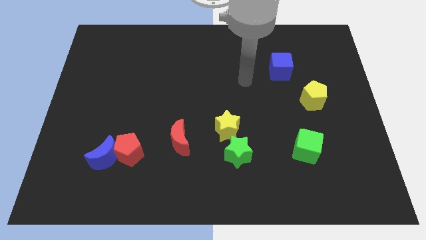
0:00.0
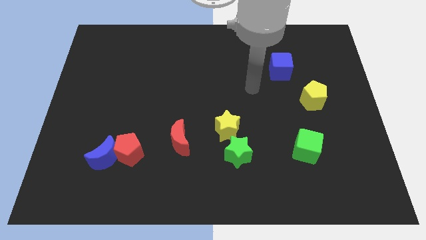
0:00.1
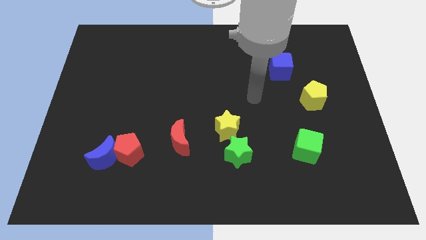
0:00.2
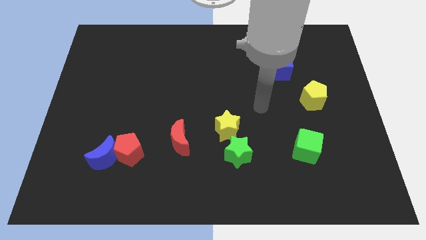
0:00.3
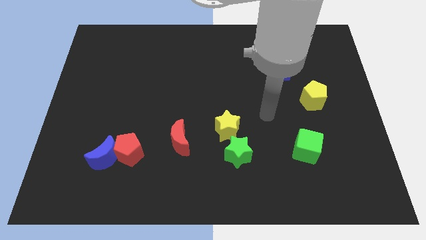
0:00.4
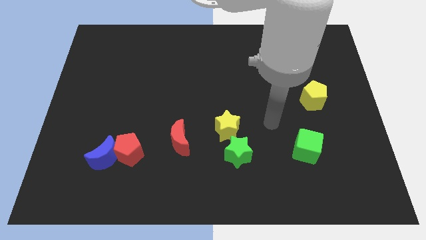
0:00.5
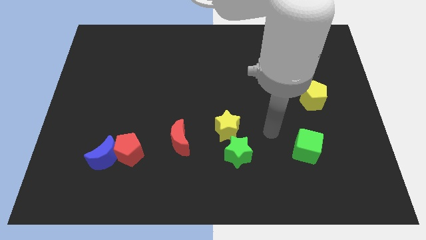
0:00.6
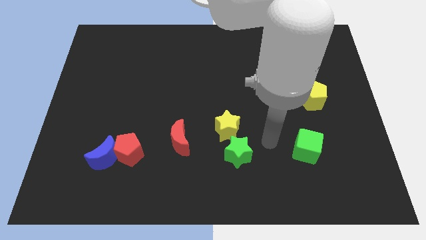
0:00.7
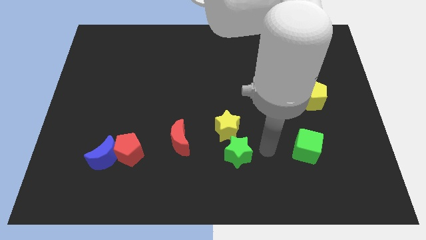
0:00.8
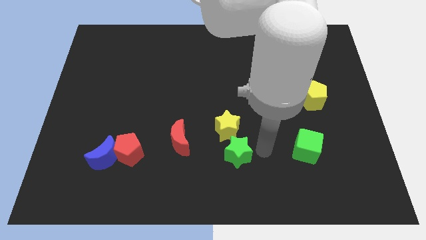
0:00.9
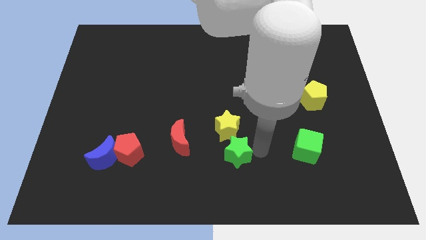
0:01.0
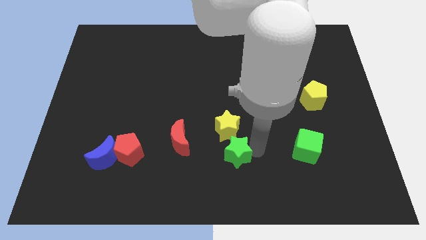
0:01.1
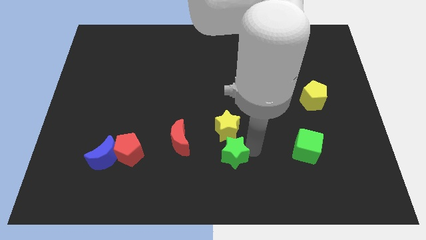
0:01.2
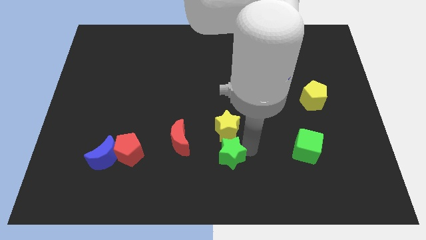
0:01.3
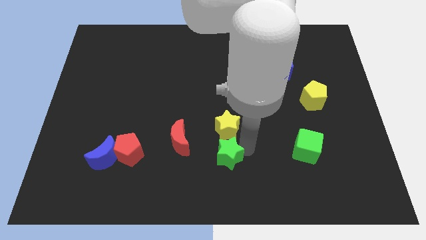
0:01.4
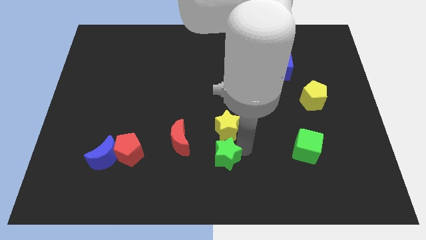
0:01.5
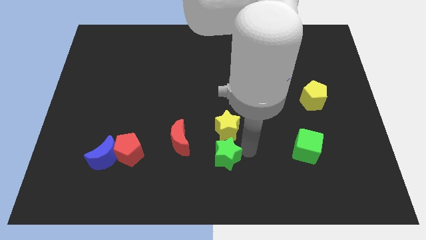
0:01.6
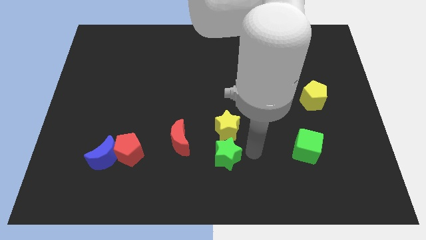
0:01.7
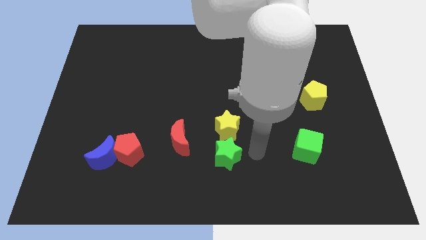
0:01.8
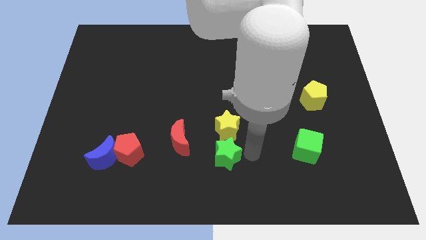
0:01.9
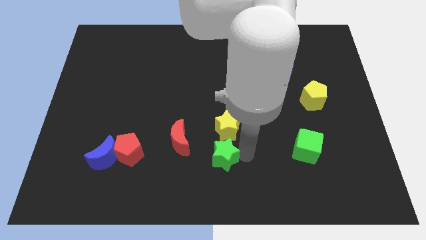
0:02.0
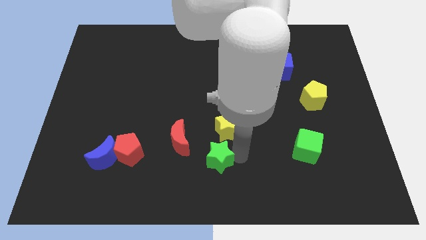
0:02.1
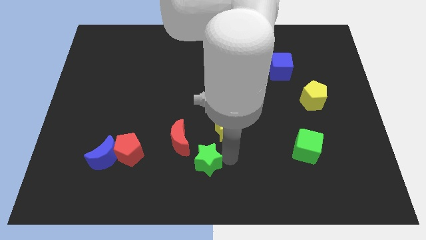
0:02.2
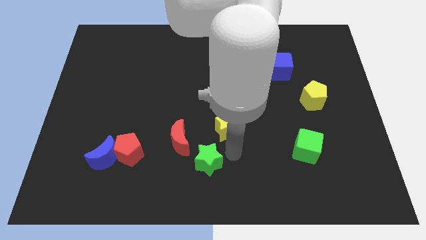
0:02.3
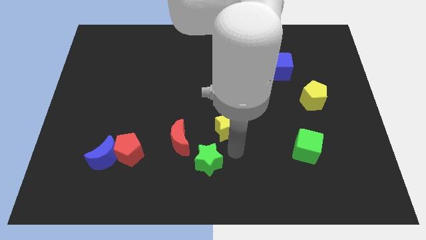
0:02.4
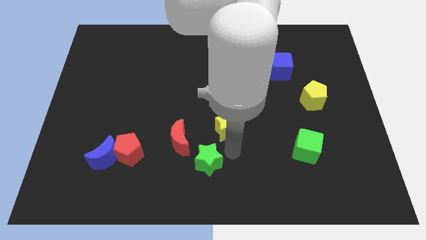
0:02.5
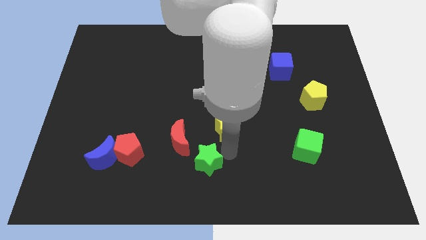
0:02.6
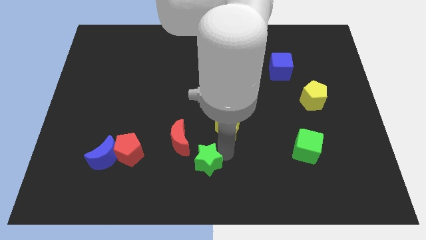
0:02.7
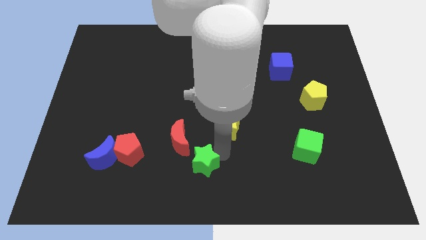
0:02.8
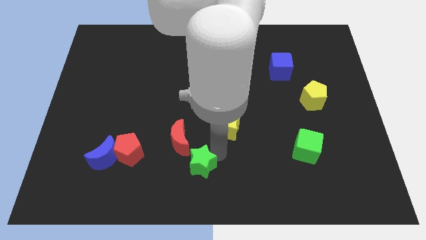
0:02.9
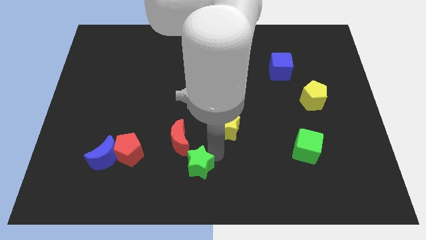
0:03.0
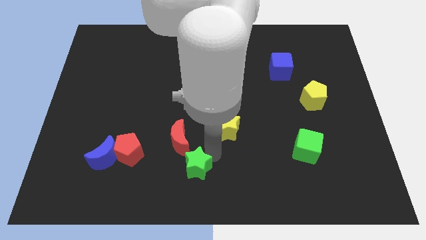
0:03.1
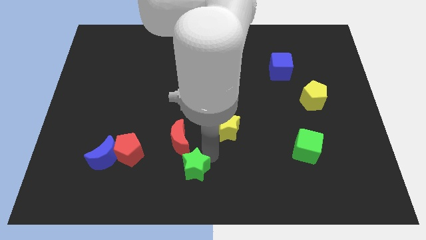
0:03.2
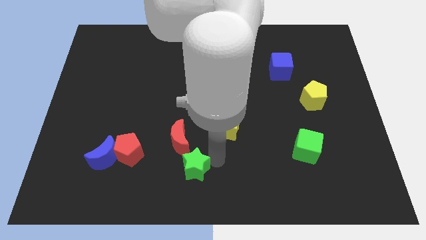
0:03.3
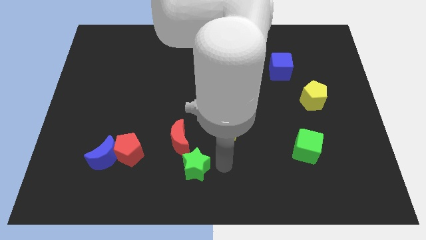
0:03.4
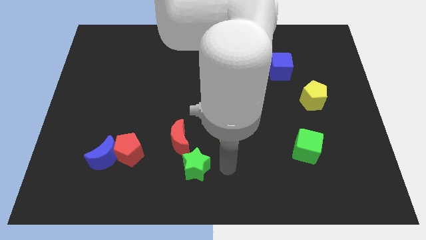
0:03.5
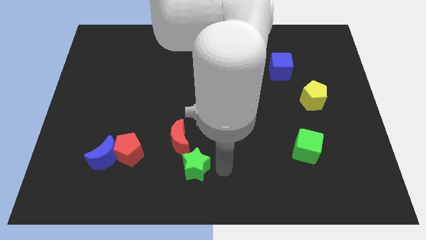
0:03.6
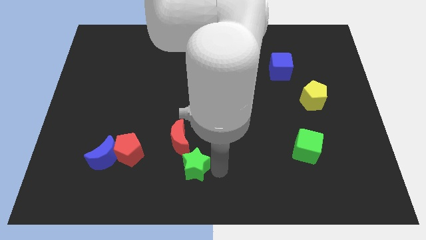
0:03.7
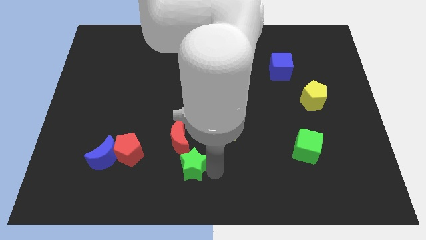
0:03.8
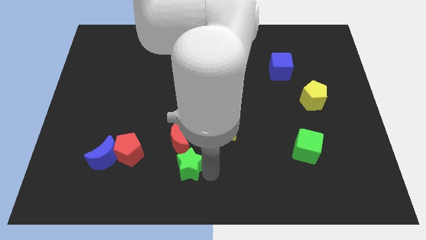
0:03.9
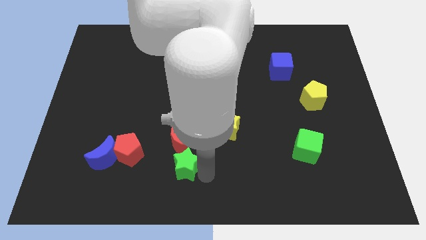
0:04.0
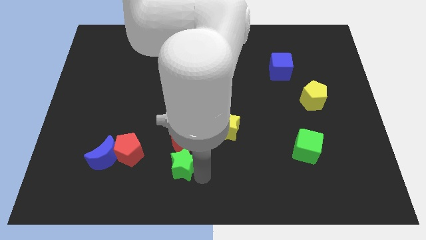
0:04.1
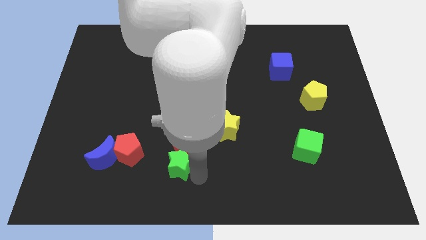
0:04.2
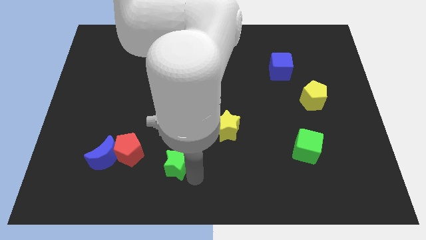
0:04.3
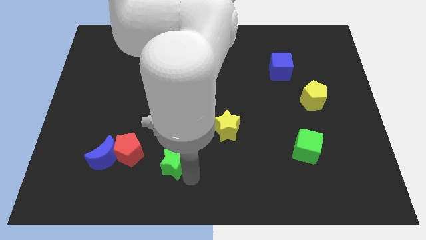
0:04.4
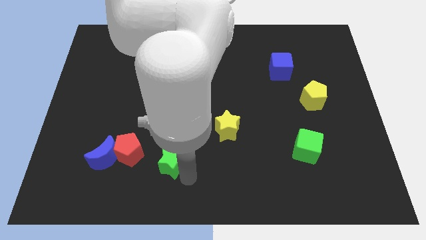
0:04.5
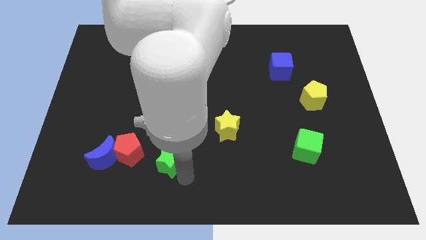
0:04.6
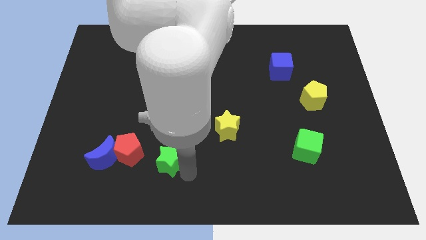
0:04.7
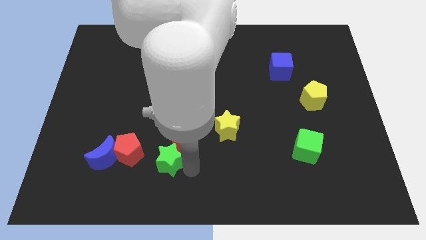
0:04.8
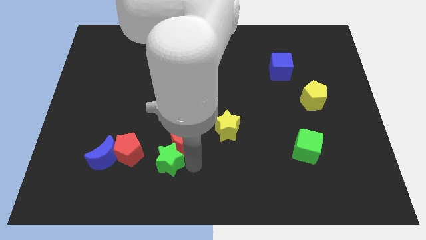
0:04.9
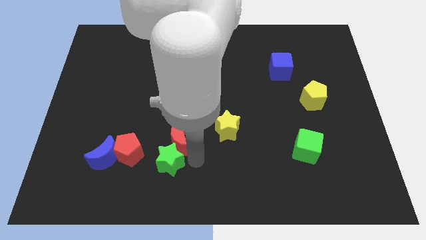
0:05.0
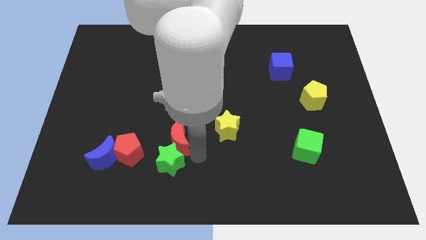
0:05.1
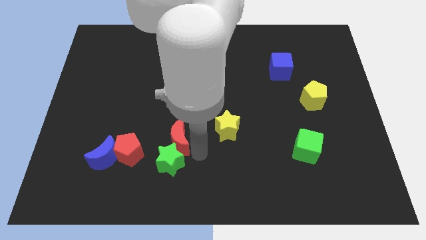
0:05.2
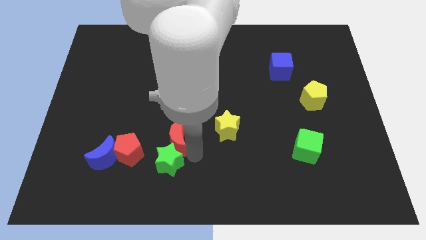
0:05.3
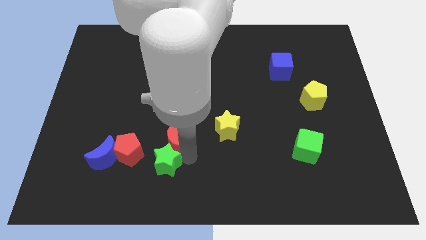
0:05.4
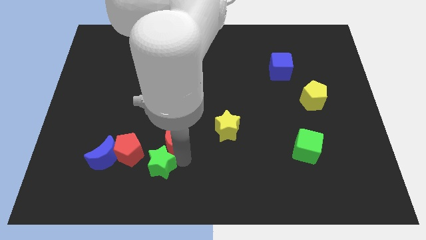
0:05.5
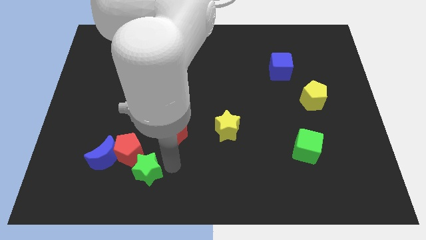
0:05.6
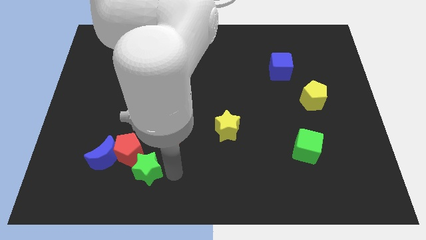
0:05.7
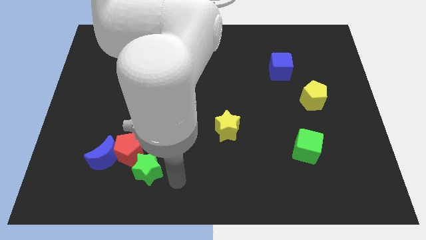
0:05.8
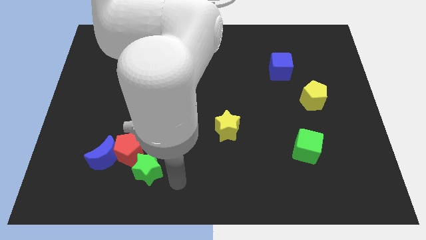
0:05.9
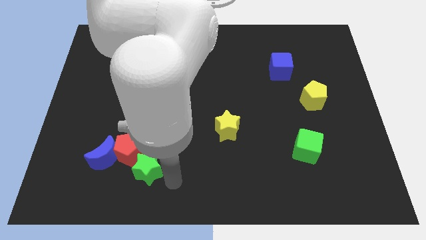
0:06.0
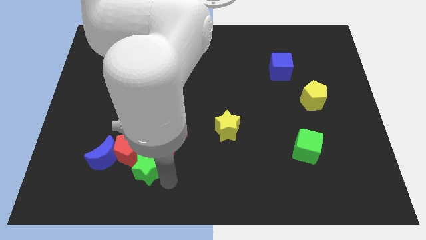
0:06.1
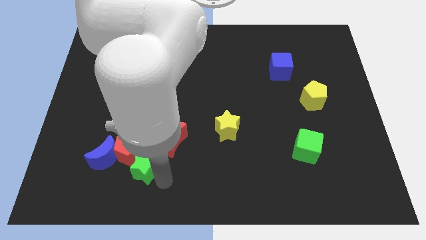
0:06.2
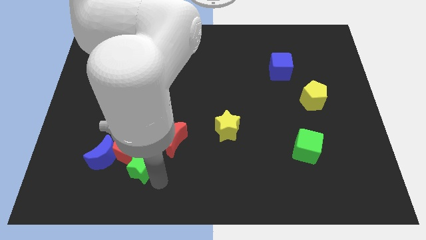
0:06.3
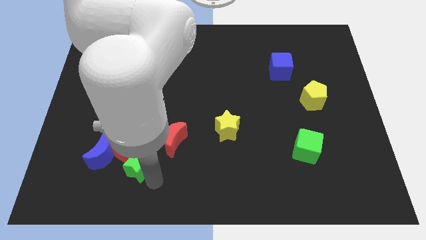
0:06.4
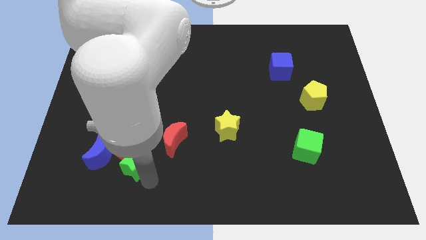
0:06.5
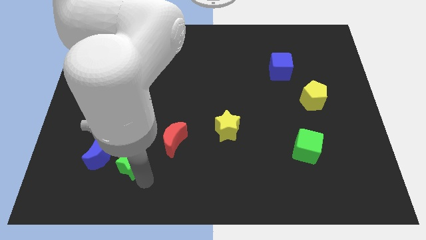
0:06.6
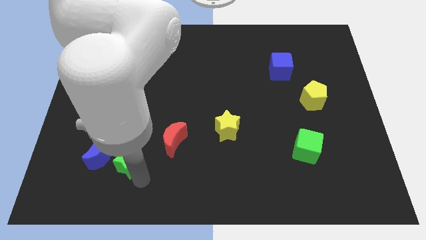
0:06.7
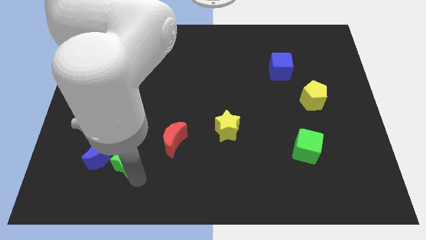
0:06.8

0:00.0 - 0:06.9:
push the green star next to the blue moon
